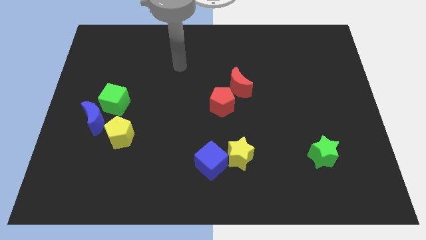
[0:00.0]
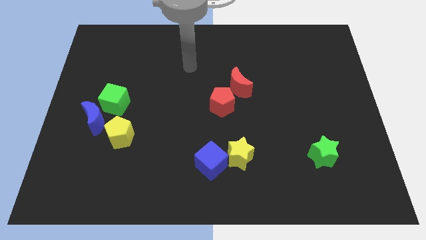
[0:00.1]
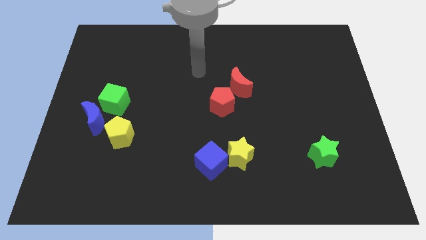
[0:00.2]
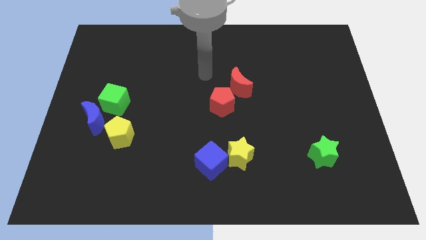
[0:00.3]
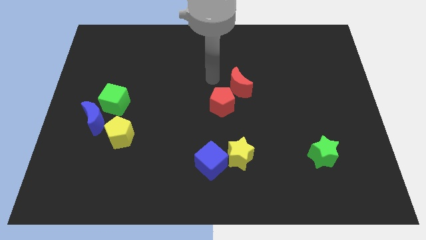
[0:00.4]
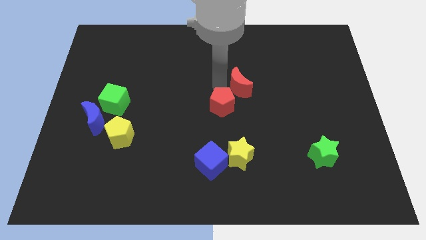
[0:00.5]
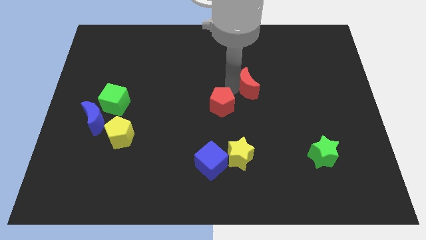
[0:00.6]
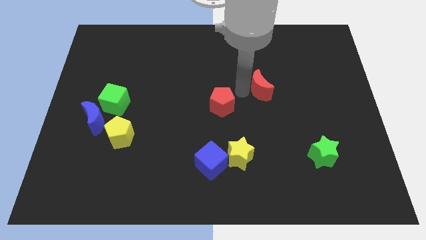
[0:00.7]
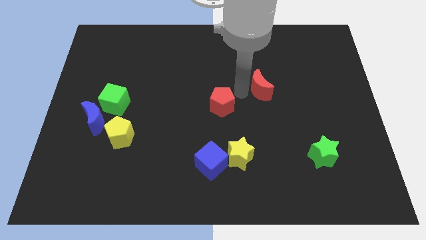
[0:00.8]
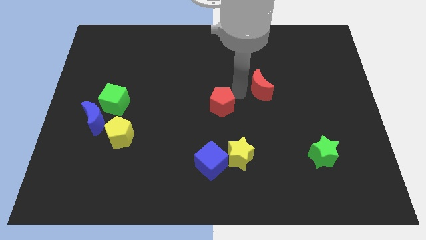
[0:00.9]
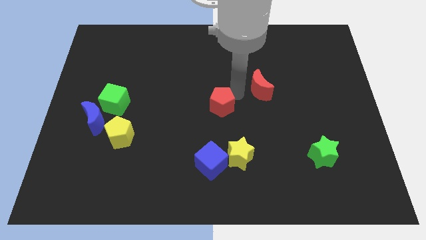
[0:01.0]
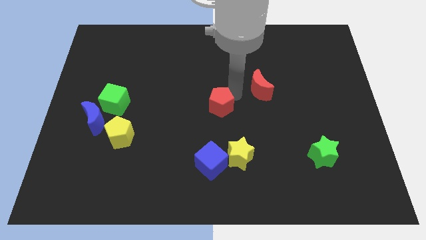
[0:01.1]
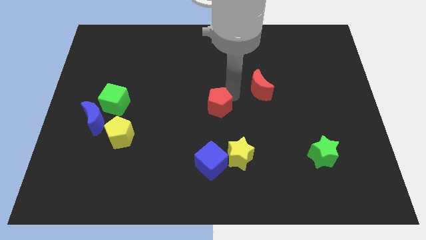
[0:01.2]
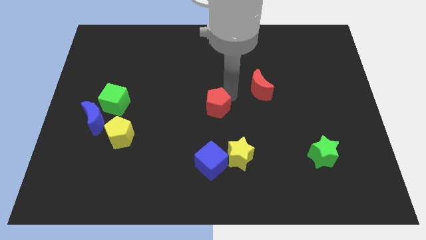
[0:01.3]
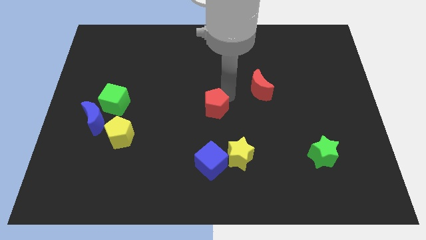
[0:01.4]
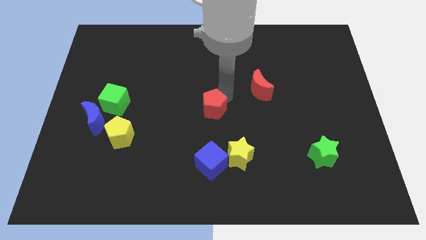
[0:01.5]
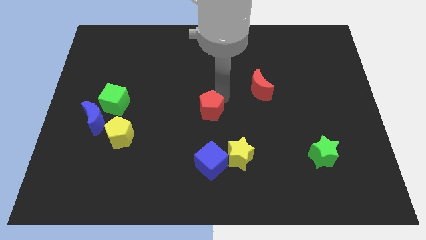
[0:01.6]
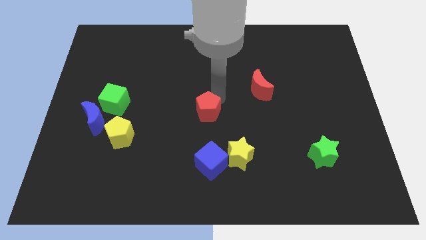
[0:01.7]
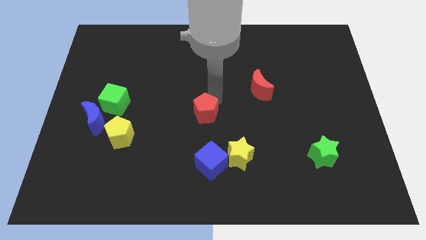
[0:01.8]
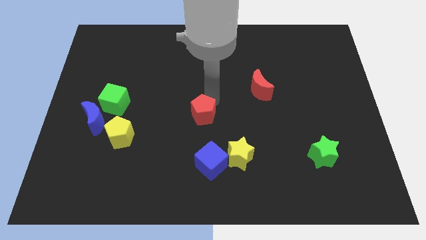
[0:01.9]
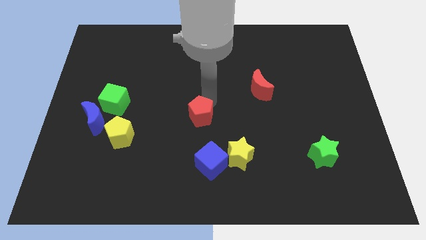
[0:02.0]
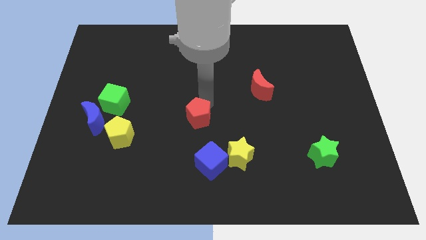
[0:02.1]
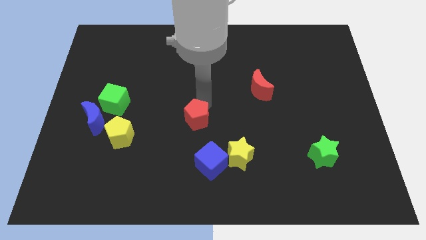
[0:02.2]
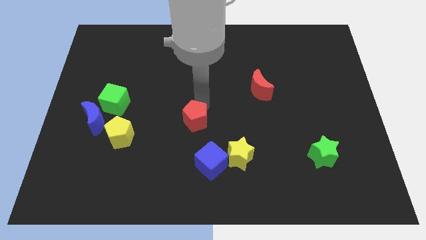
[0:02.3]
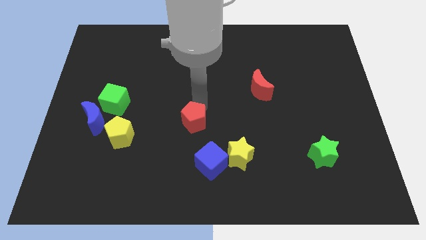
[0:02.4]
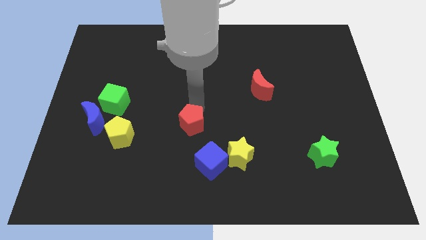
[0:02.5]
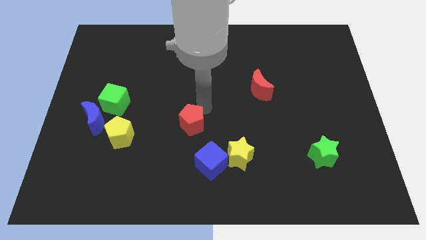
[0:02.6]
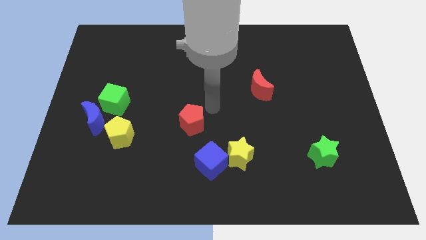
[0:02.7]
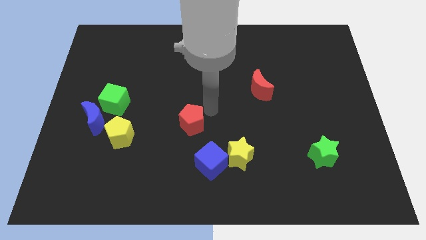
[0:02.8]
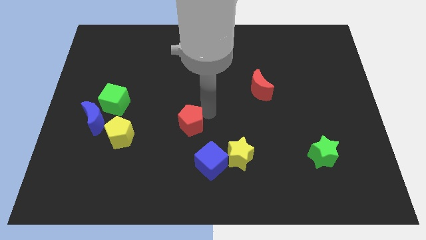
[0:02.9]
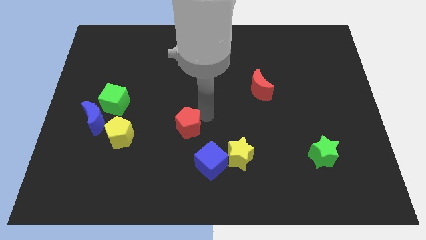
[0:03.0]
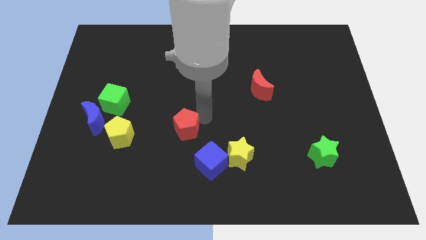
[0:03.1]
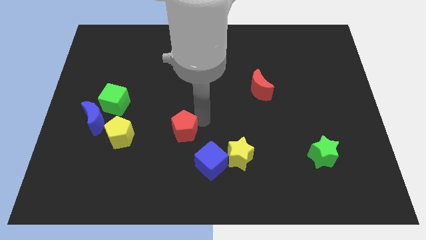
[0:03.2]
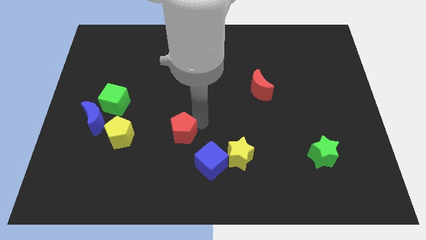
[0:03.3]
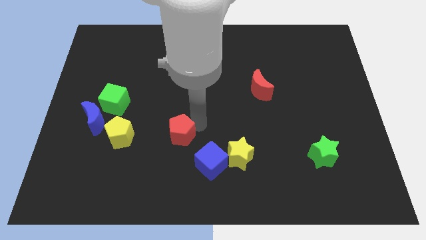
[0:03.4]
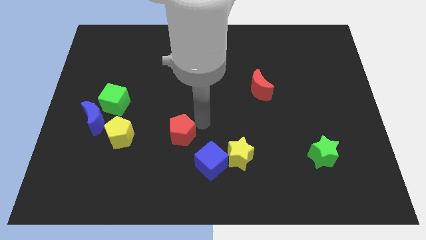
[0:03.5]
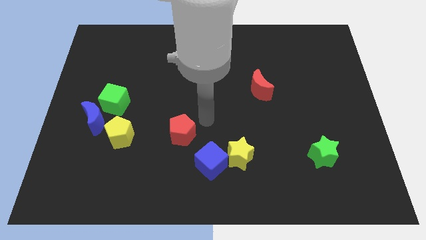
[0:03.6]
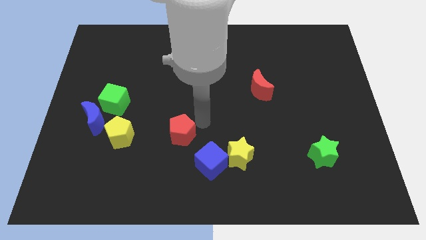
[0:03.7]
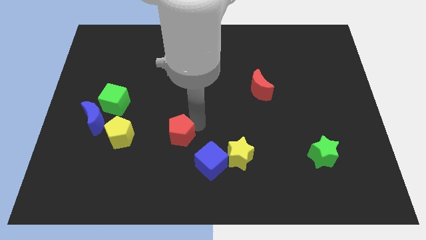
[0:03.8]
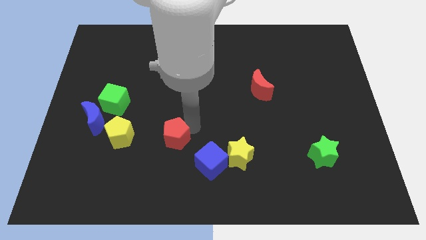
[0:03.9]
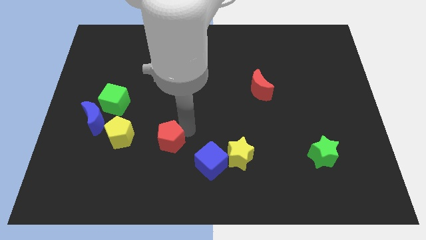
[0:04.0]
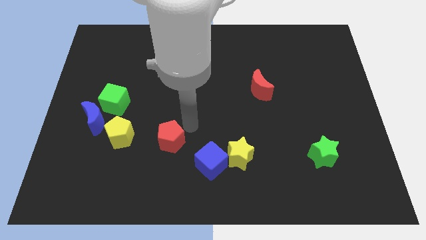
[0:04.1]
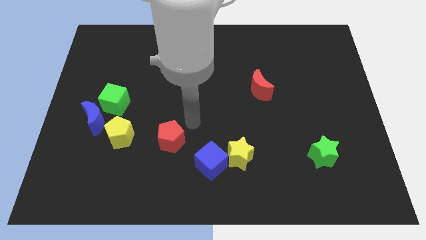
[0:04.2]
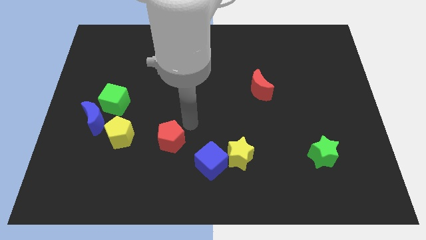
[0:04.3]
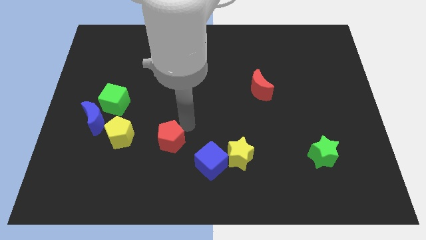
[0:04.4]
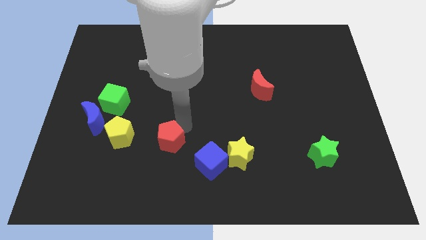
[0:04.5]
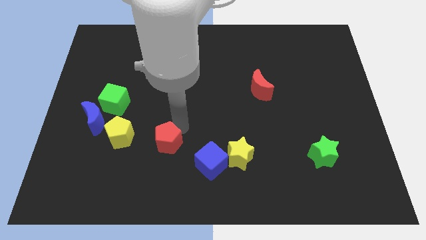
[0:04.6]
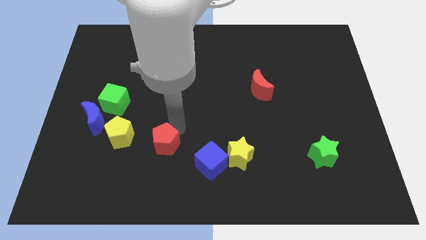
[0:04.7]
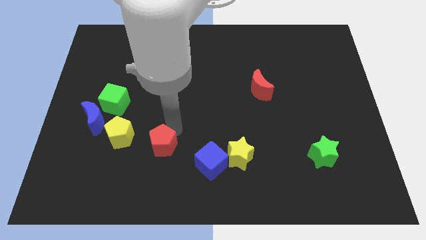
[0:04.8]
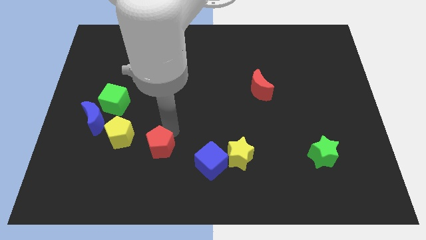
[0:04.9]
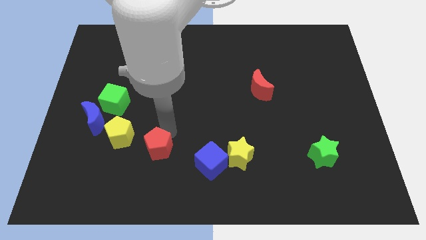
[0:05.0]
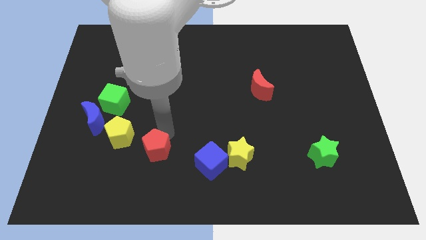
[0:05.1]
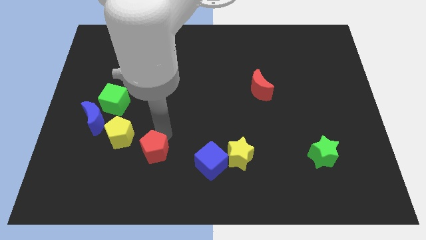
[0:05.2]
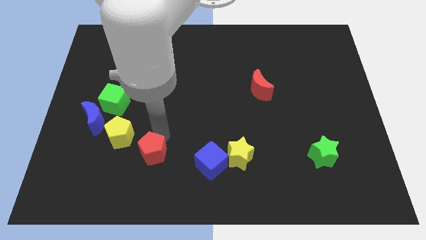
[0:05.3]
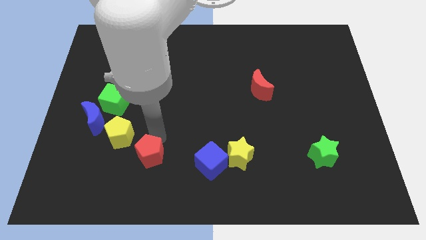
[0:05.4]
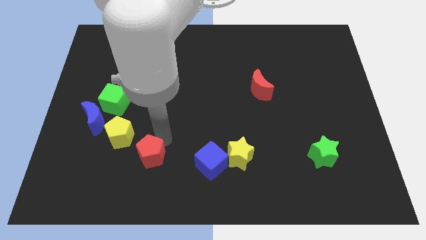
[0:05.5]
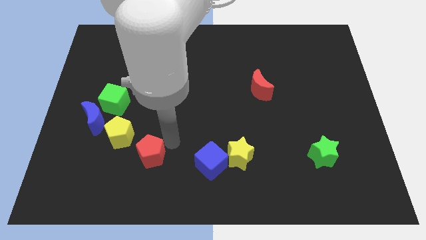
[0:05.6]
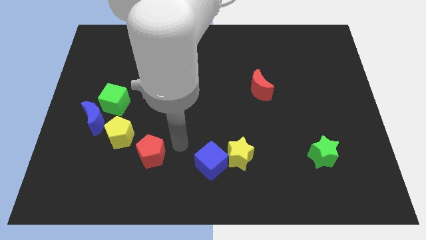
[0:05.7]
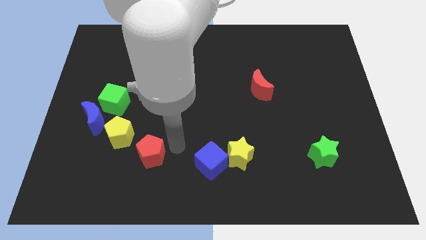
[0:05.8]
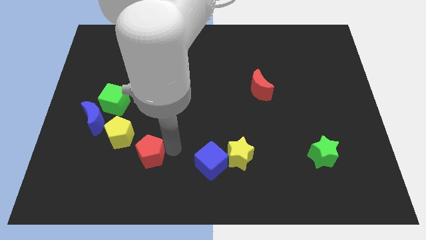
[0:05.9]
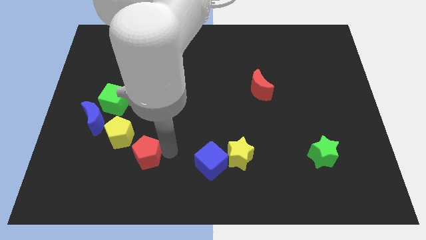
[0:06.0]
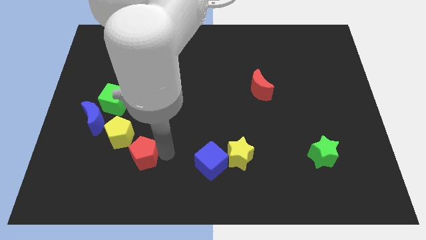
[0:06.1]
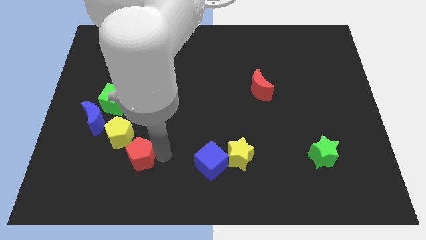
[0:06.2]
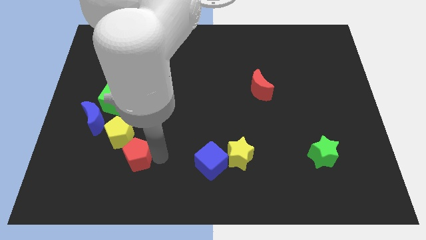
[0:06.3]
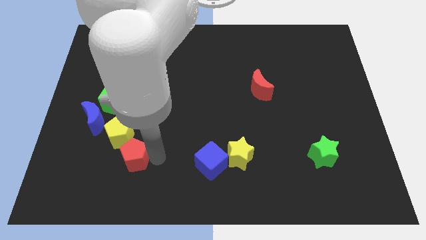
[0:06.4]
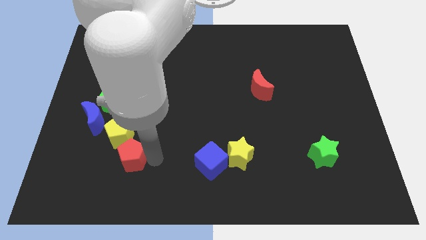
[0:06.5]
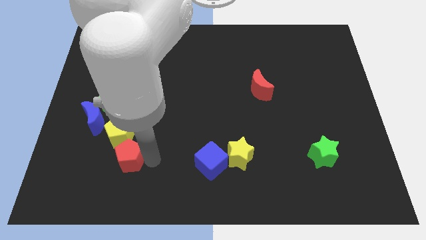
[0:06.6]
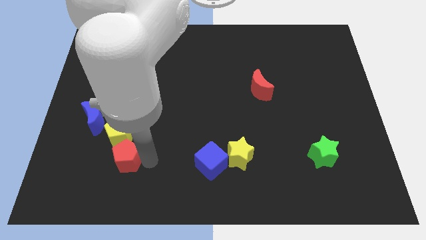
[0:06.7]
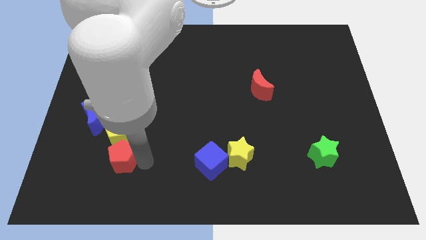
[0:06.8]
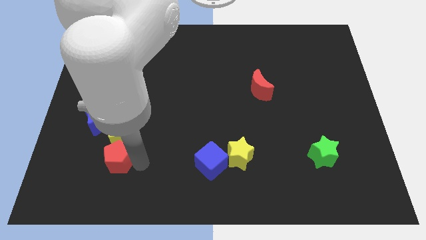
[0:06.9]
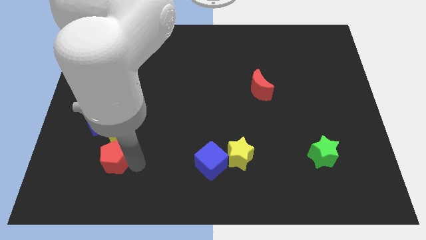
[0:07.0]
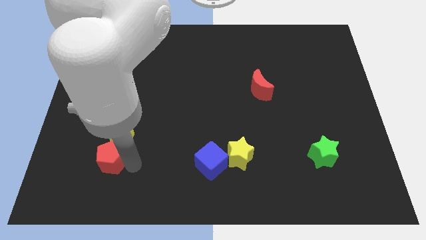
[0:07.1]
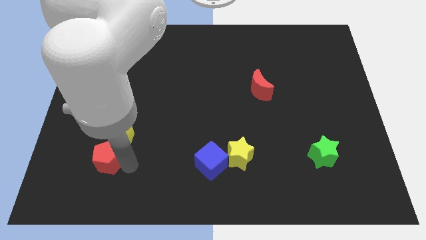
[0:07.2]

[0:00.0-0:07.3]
put the red pentagon to the bottom side of the blue moon
